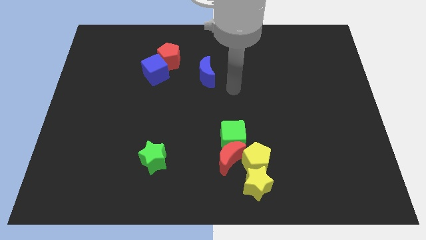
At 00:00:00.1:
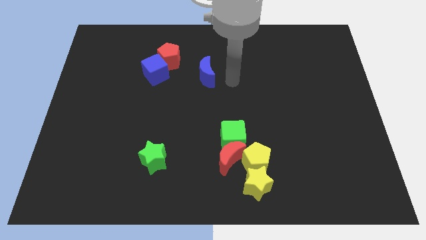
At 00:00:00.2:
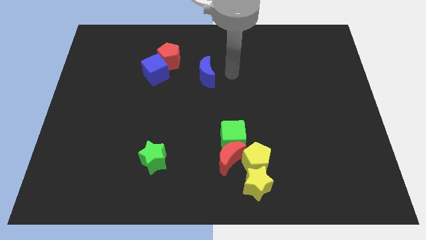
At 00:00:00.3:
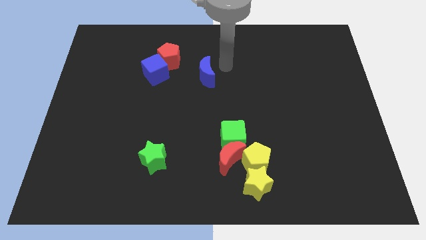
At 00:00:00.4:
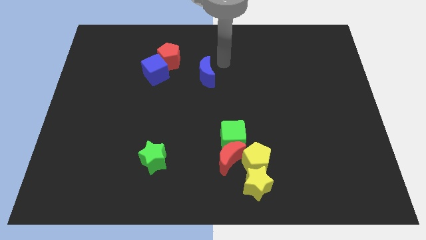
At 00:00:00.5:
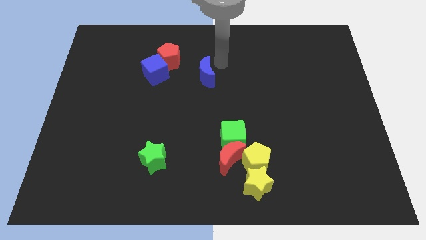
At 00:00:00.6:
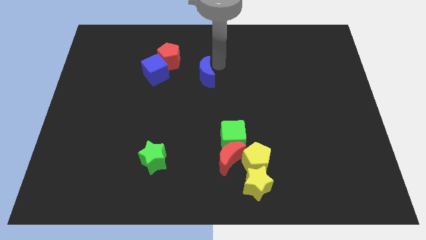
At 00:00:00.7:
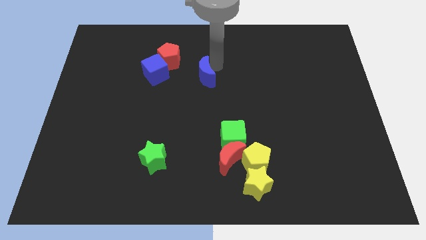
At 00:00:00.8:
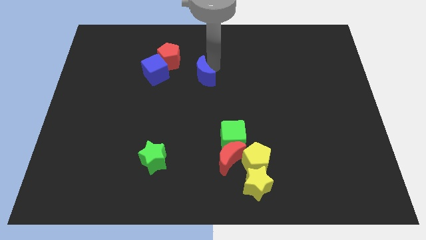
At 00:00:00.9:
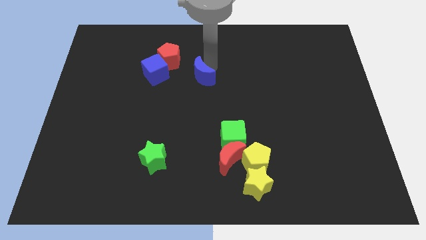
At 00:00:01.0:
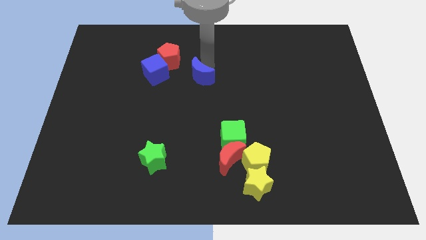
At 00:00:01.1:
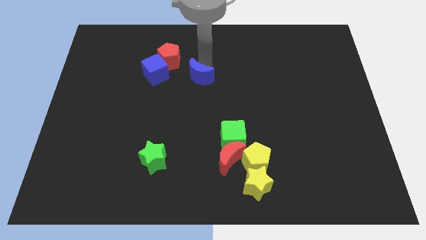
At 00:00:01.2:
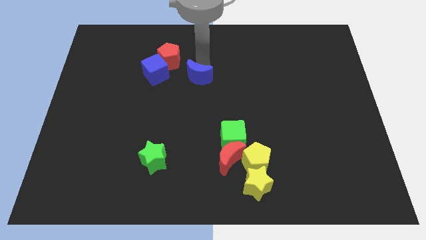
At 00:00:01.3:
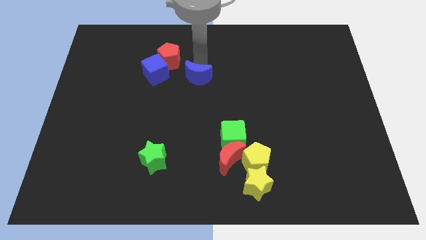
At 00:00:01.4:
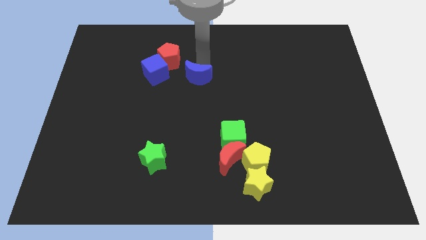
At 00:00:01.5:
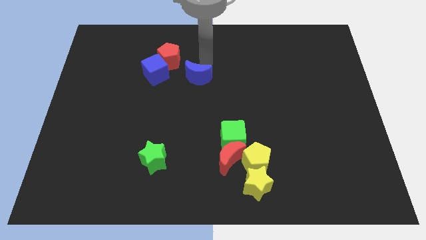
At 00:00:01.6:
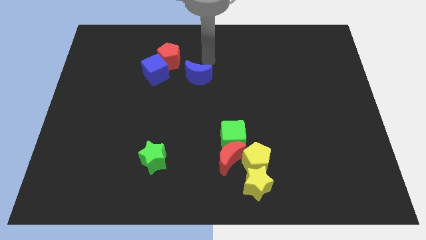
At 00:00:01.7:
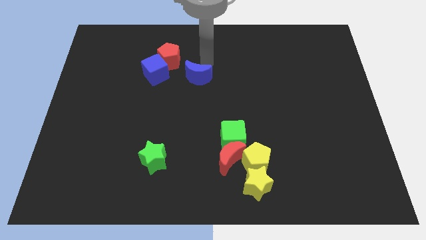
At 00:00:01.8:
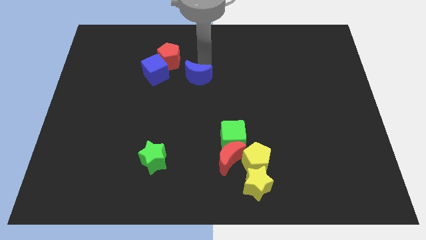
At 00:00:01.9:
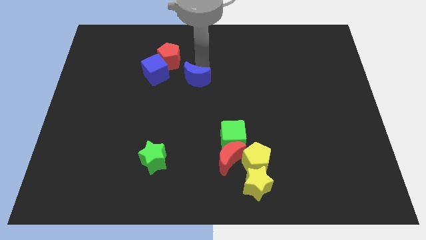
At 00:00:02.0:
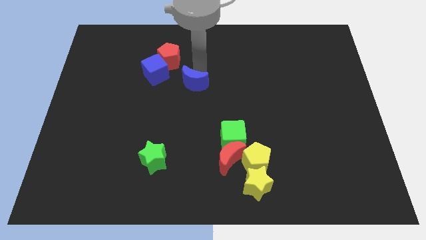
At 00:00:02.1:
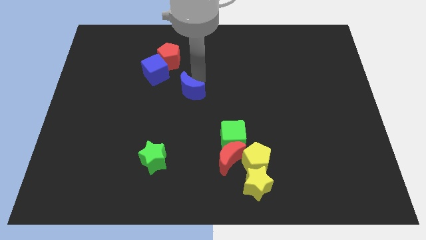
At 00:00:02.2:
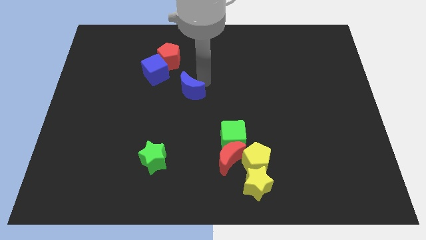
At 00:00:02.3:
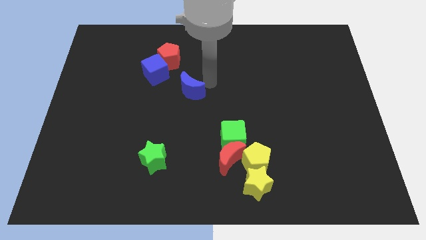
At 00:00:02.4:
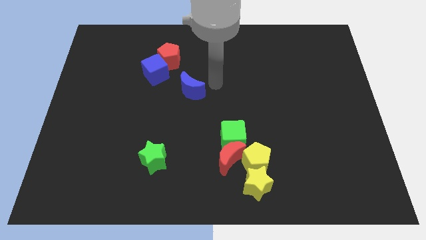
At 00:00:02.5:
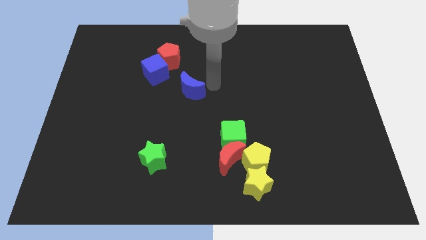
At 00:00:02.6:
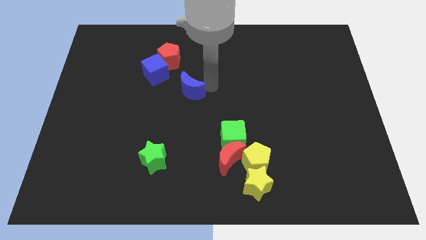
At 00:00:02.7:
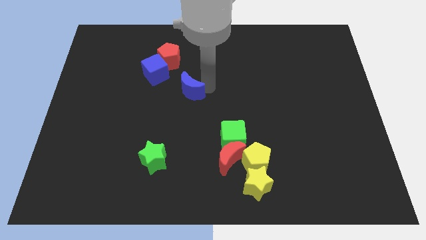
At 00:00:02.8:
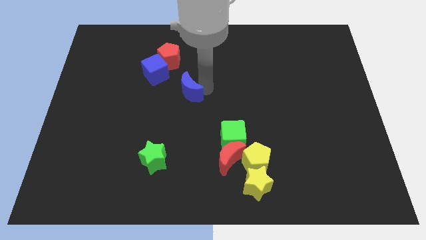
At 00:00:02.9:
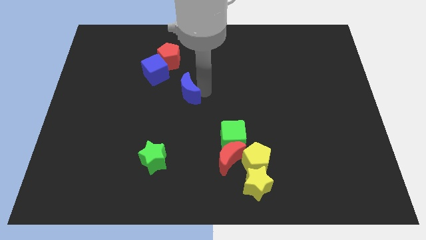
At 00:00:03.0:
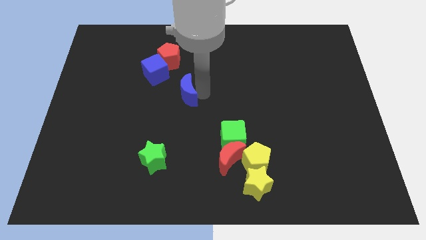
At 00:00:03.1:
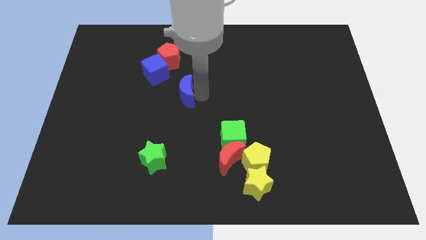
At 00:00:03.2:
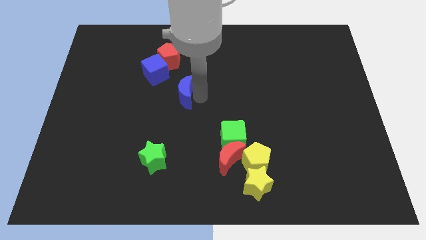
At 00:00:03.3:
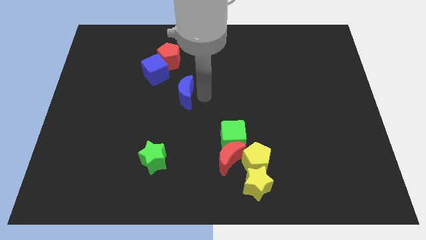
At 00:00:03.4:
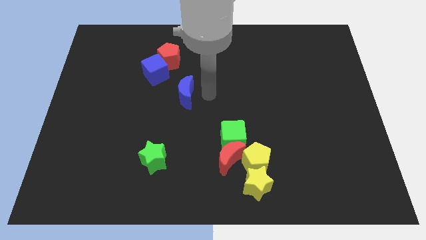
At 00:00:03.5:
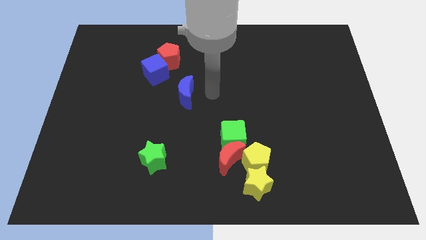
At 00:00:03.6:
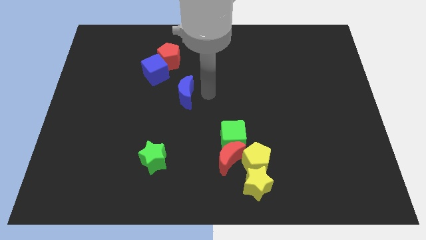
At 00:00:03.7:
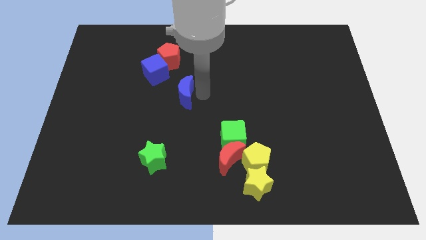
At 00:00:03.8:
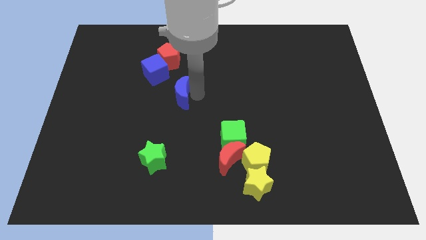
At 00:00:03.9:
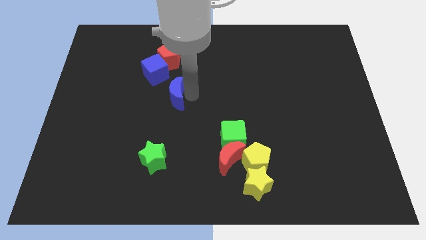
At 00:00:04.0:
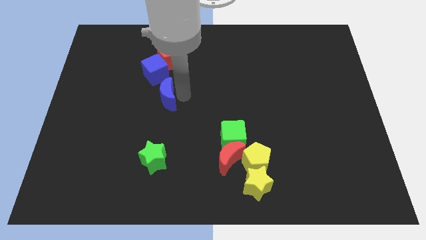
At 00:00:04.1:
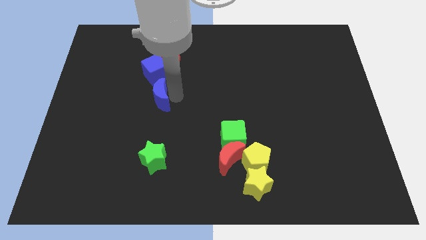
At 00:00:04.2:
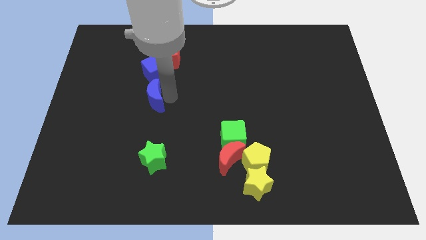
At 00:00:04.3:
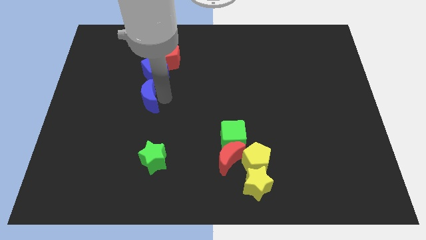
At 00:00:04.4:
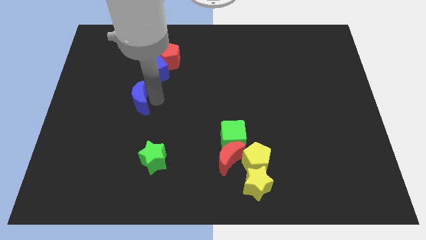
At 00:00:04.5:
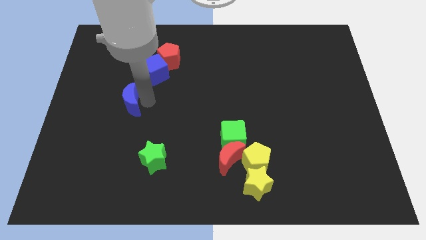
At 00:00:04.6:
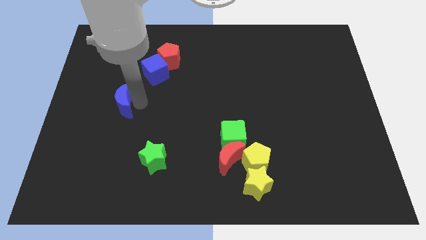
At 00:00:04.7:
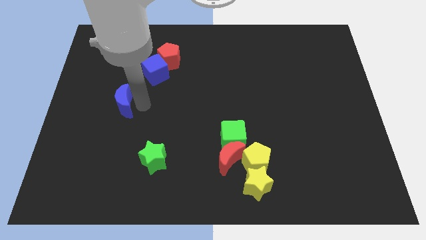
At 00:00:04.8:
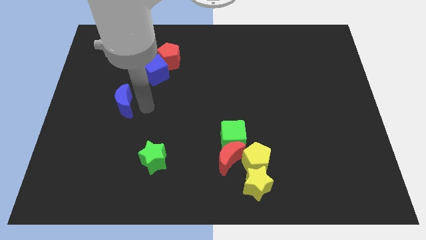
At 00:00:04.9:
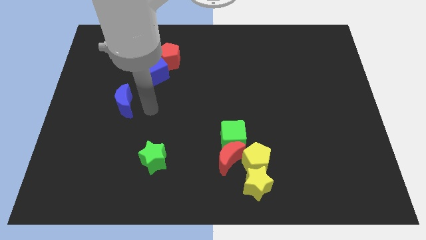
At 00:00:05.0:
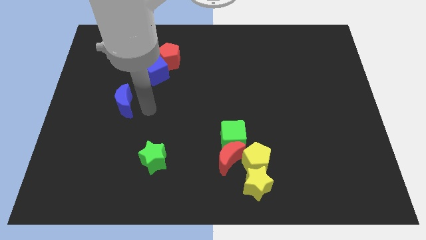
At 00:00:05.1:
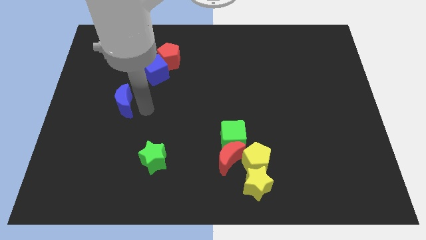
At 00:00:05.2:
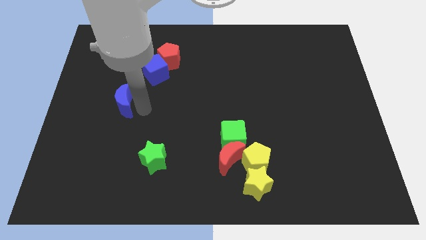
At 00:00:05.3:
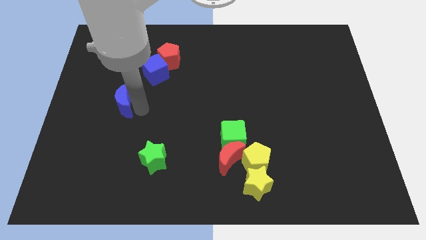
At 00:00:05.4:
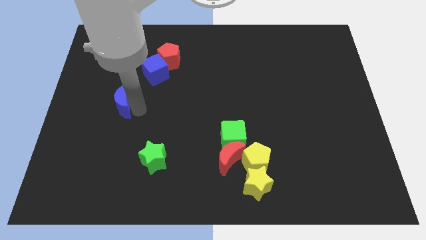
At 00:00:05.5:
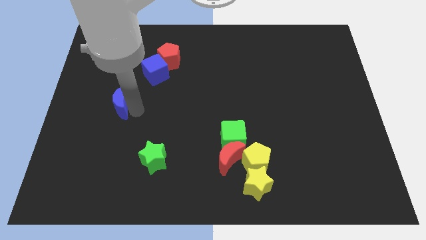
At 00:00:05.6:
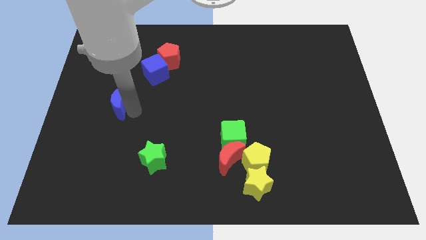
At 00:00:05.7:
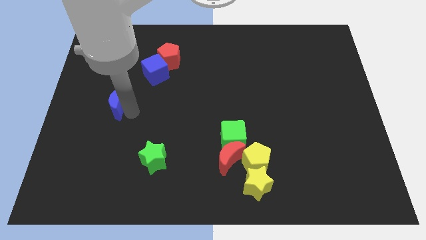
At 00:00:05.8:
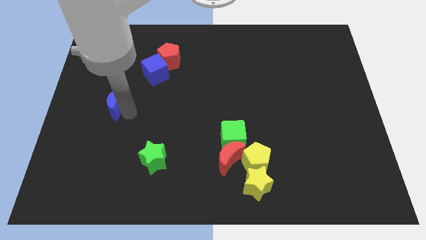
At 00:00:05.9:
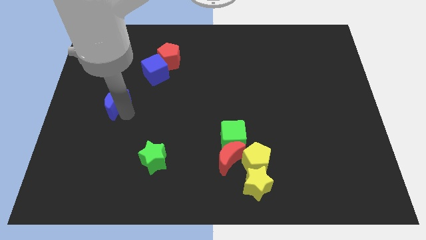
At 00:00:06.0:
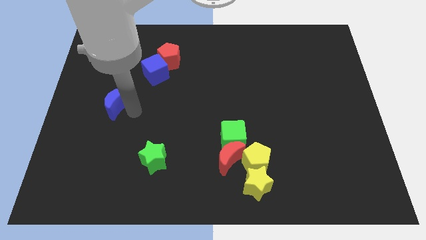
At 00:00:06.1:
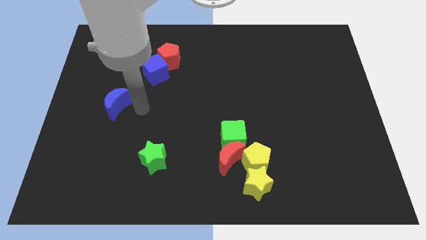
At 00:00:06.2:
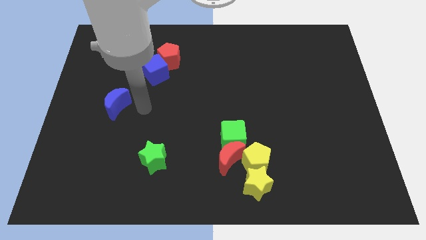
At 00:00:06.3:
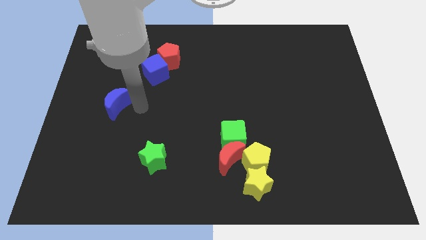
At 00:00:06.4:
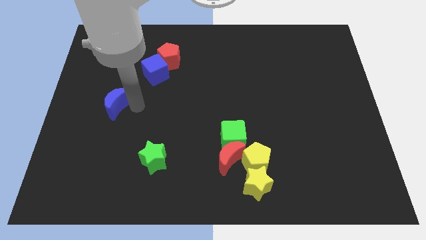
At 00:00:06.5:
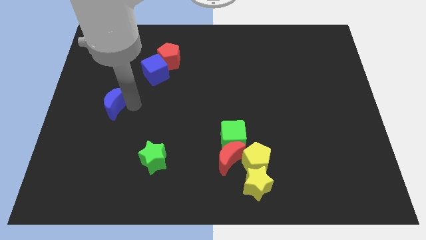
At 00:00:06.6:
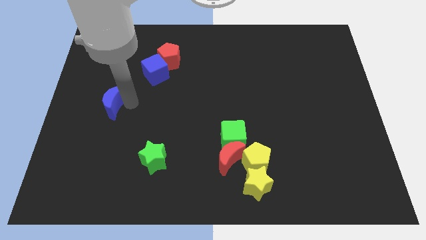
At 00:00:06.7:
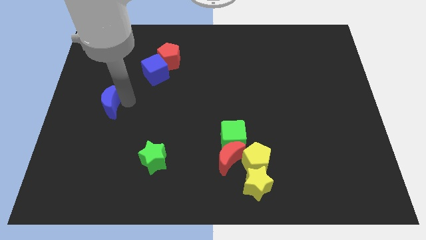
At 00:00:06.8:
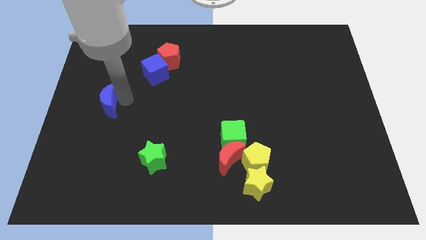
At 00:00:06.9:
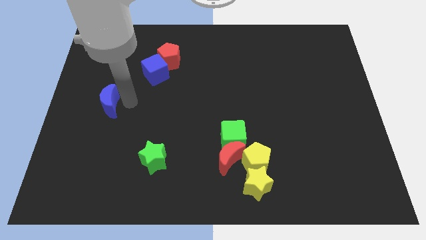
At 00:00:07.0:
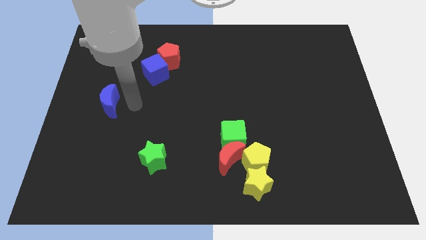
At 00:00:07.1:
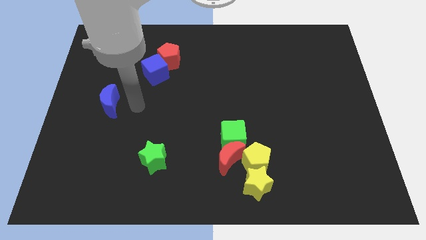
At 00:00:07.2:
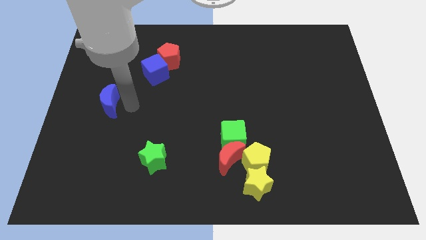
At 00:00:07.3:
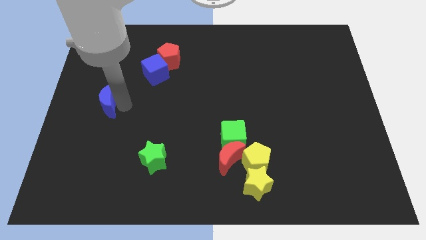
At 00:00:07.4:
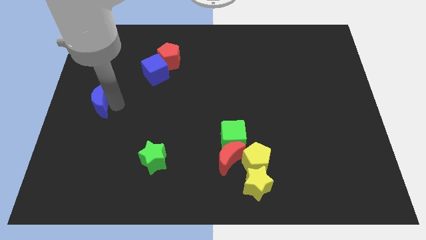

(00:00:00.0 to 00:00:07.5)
put the blue moon to the left side of the board
